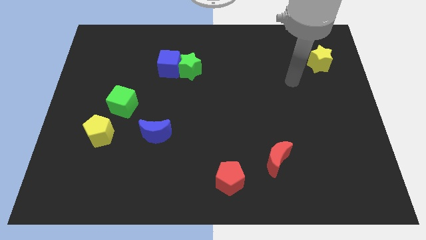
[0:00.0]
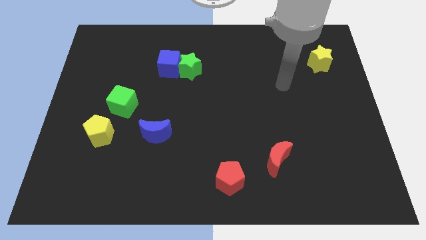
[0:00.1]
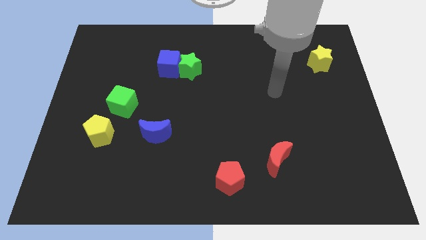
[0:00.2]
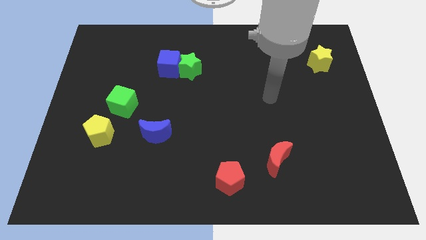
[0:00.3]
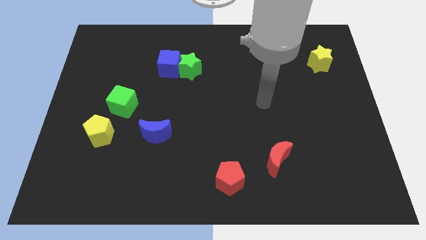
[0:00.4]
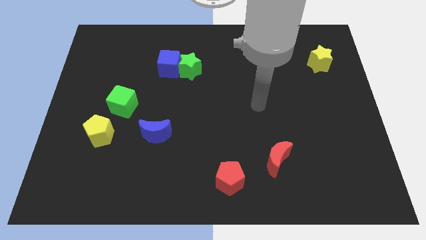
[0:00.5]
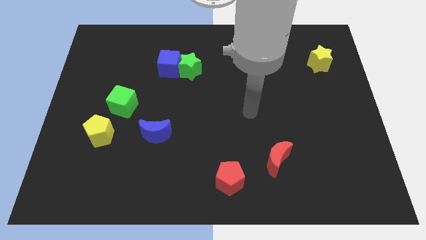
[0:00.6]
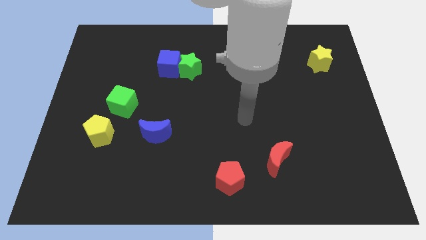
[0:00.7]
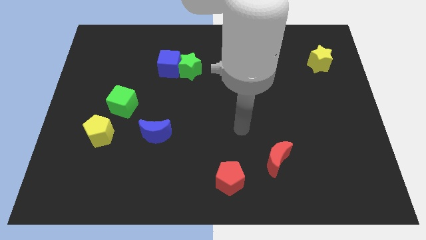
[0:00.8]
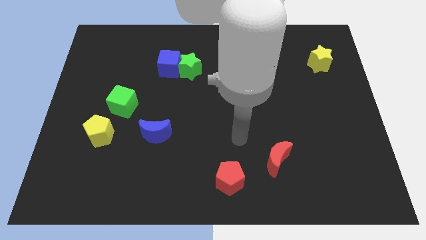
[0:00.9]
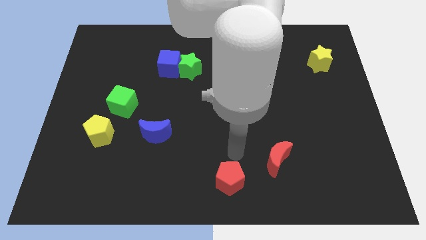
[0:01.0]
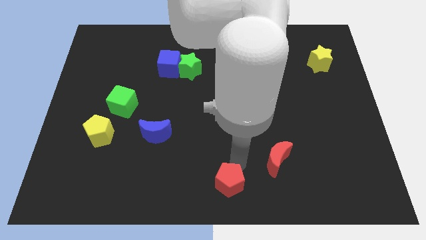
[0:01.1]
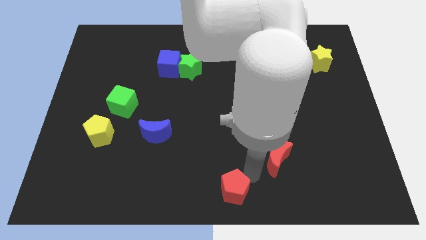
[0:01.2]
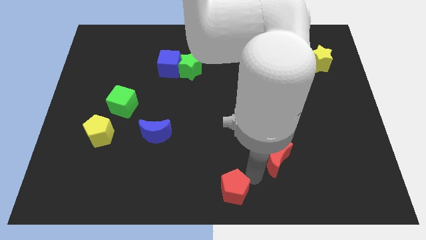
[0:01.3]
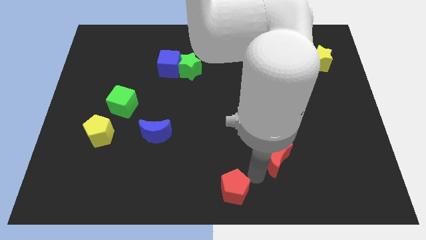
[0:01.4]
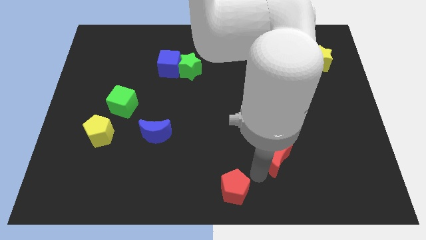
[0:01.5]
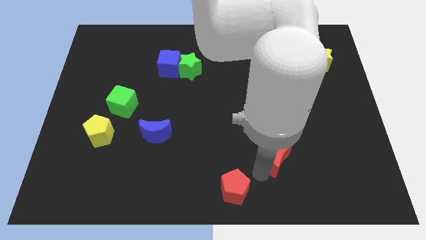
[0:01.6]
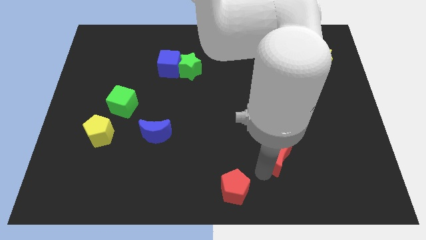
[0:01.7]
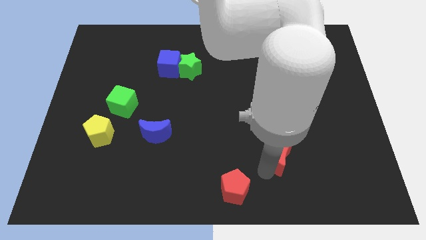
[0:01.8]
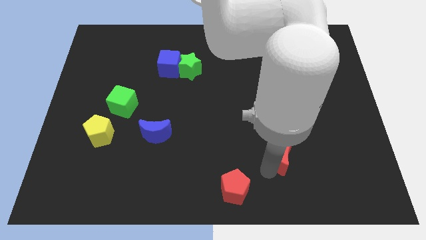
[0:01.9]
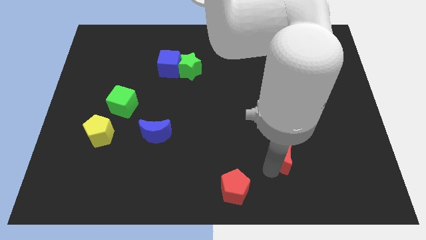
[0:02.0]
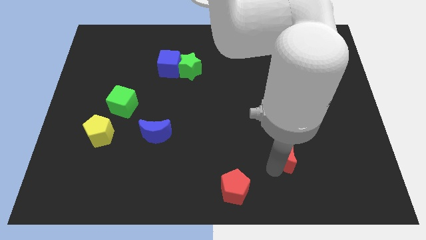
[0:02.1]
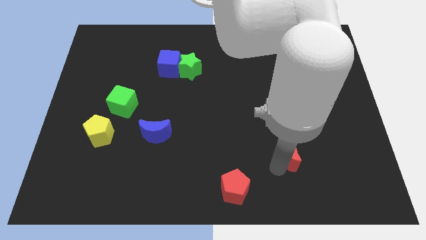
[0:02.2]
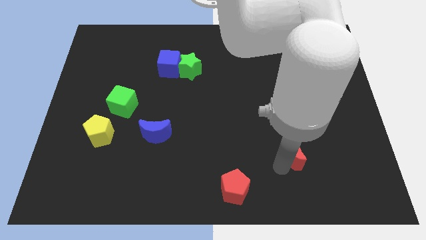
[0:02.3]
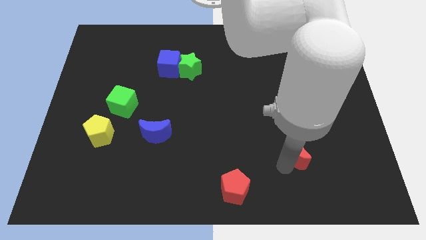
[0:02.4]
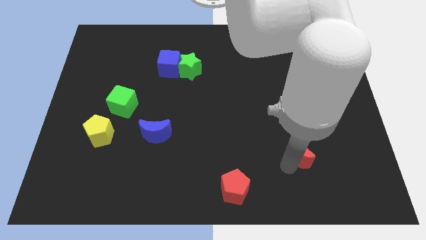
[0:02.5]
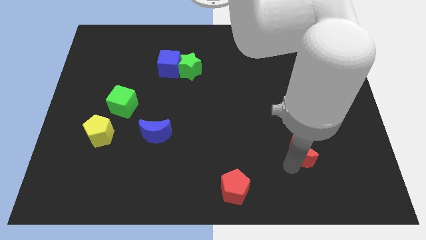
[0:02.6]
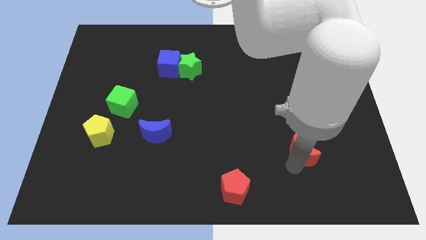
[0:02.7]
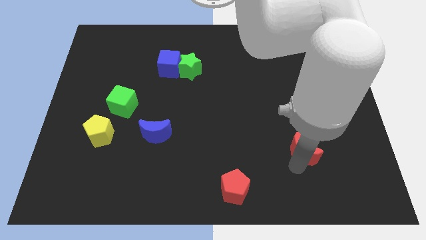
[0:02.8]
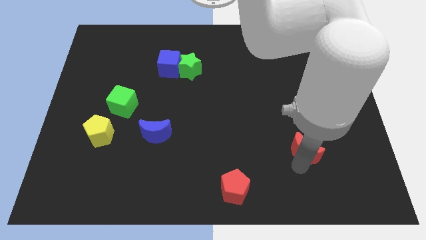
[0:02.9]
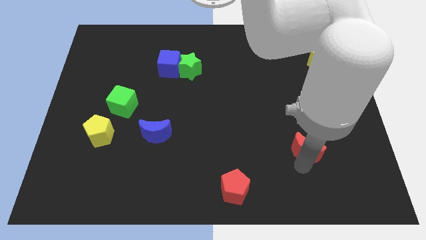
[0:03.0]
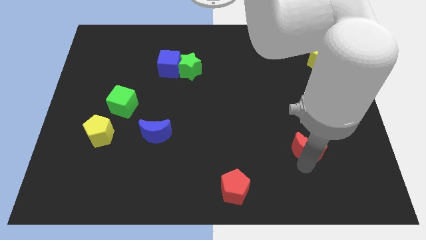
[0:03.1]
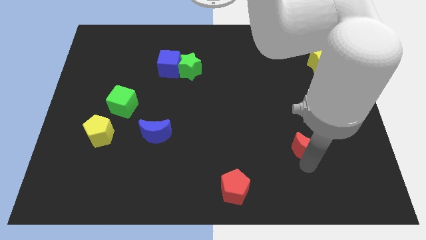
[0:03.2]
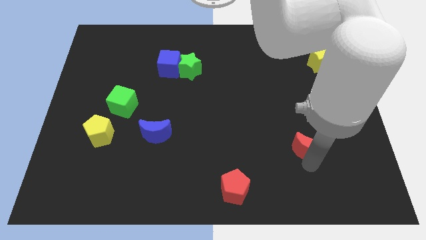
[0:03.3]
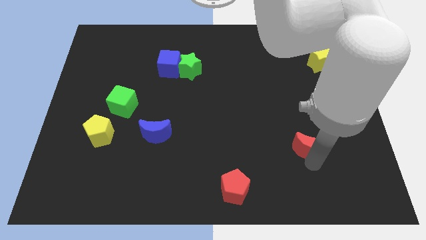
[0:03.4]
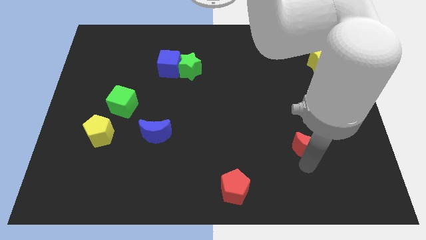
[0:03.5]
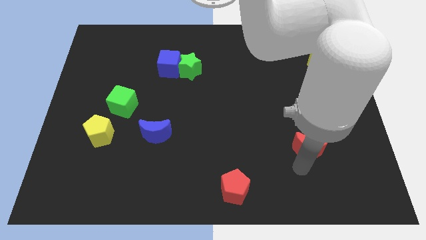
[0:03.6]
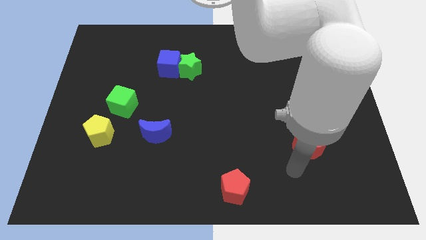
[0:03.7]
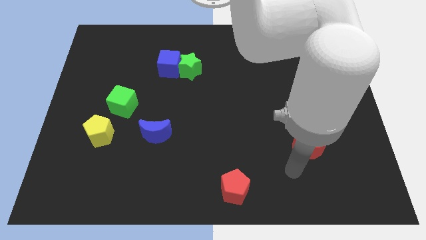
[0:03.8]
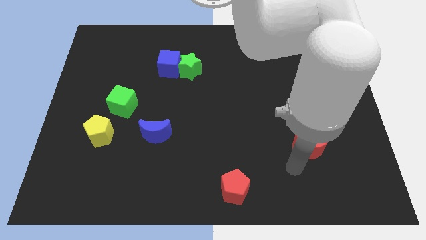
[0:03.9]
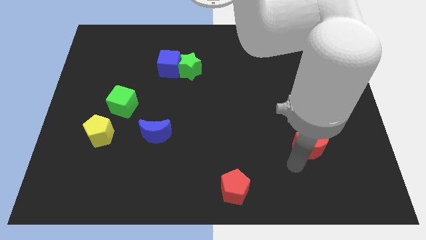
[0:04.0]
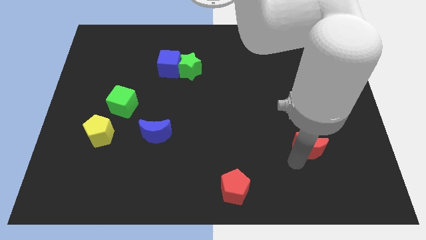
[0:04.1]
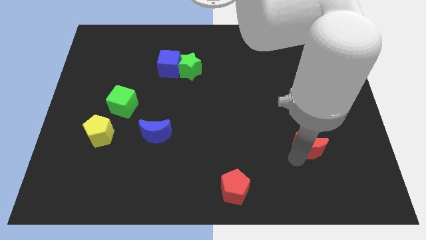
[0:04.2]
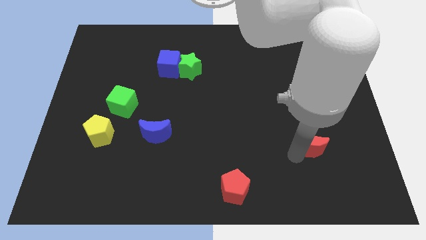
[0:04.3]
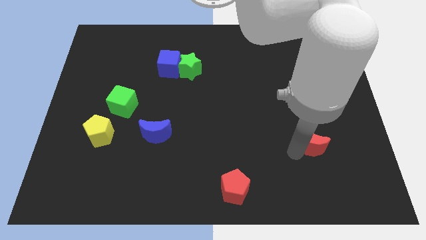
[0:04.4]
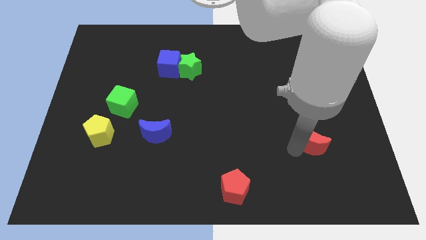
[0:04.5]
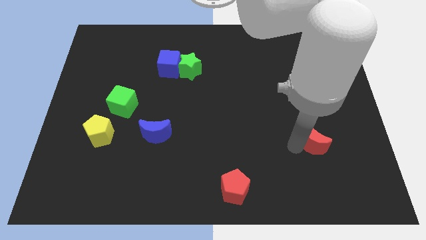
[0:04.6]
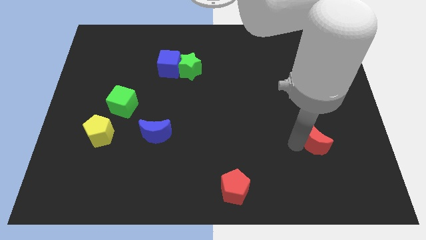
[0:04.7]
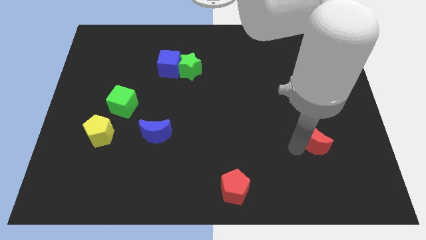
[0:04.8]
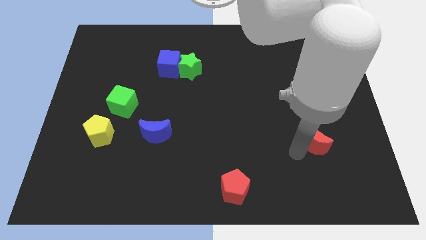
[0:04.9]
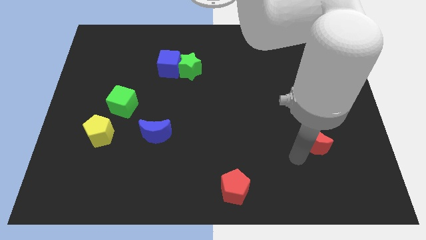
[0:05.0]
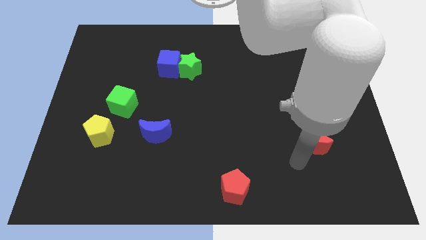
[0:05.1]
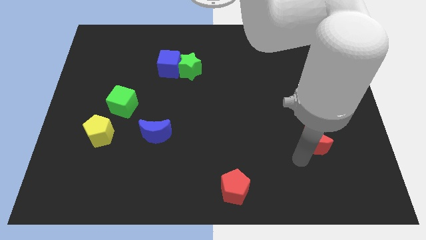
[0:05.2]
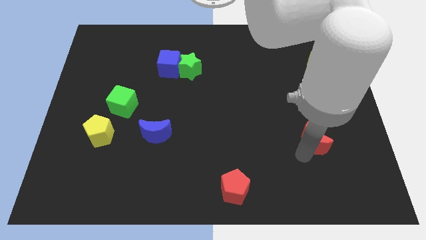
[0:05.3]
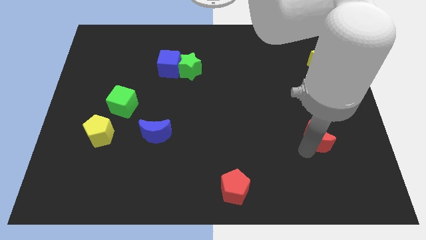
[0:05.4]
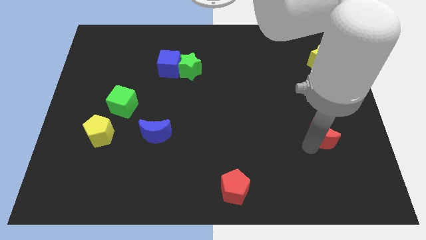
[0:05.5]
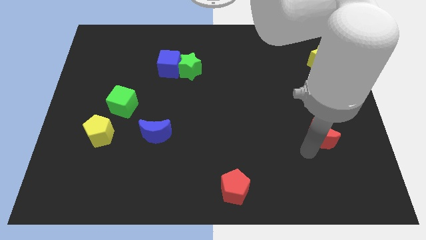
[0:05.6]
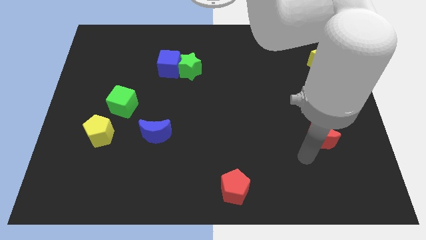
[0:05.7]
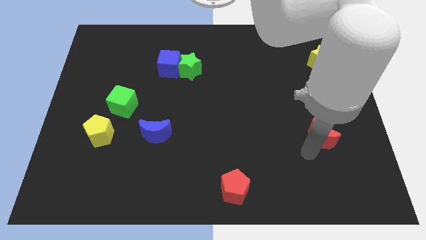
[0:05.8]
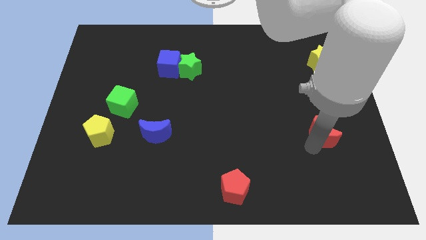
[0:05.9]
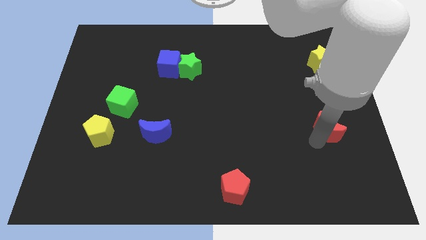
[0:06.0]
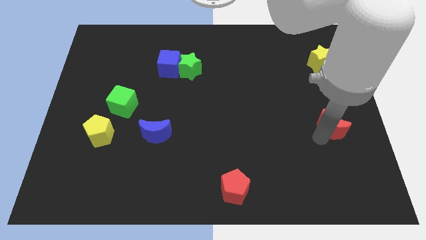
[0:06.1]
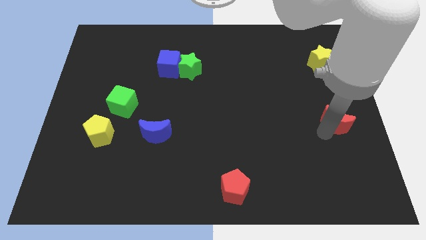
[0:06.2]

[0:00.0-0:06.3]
push the red moon to the right side
